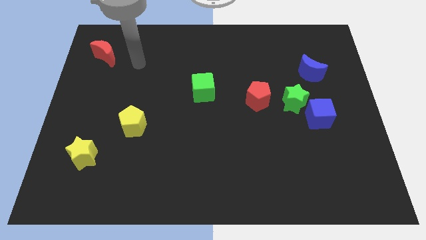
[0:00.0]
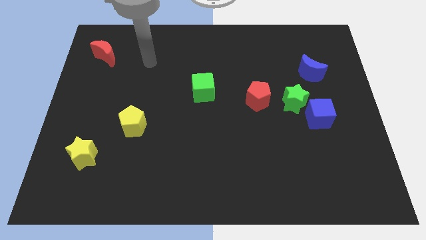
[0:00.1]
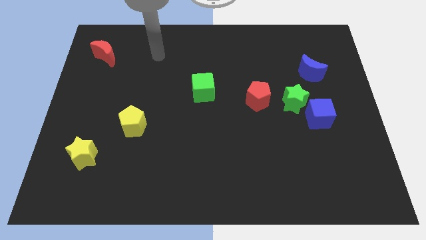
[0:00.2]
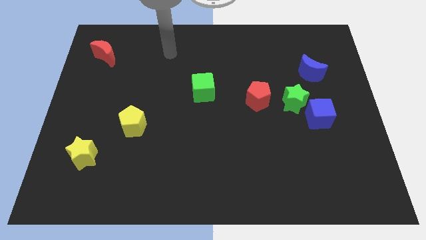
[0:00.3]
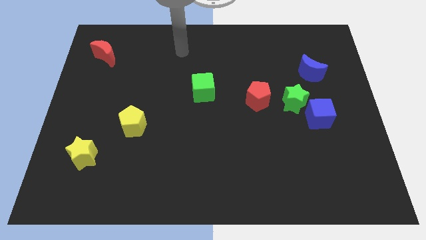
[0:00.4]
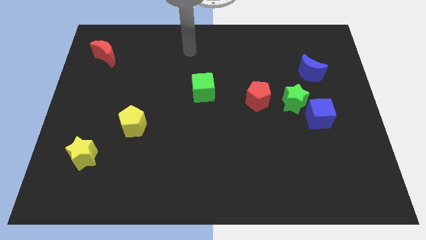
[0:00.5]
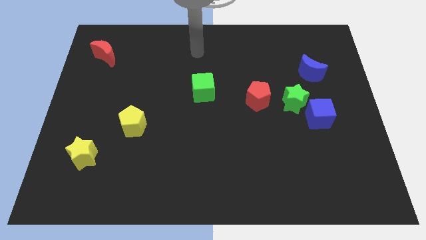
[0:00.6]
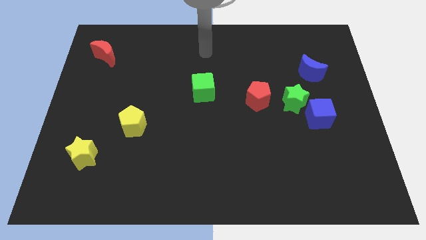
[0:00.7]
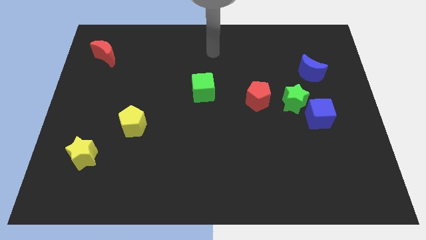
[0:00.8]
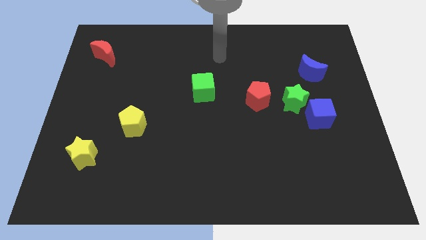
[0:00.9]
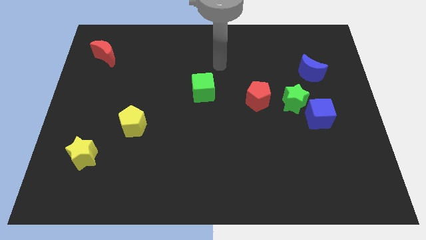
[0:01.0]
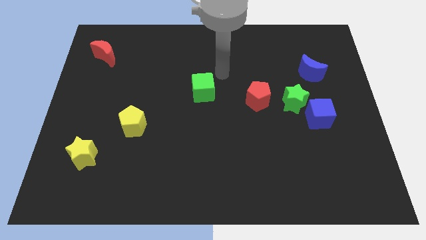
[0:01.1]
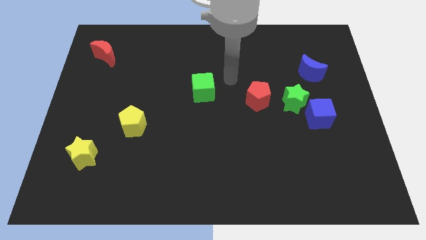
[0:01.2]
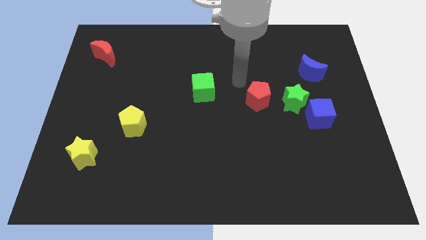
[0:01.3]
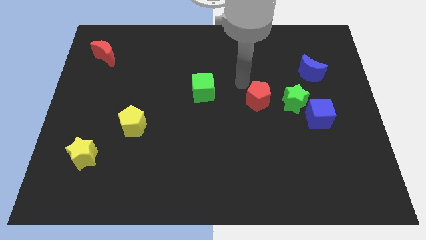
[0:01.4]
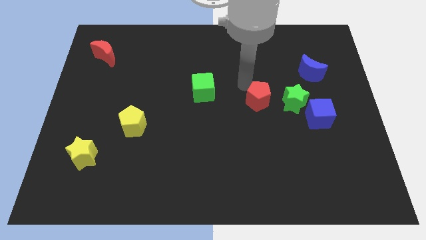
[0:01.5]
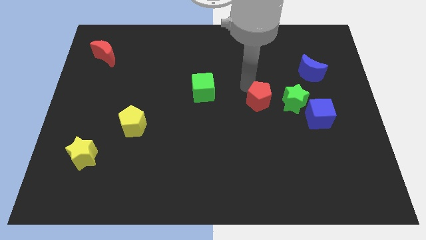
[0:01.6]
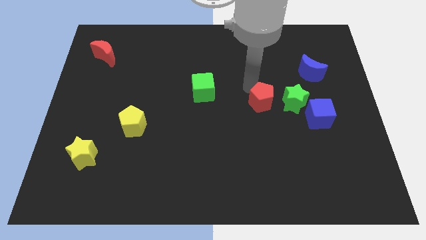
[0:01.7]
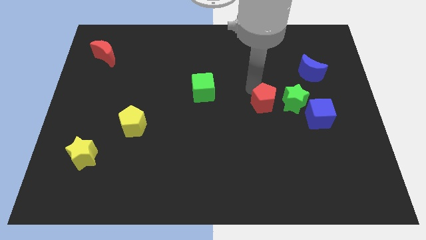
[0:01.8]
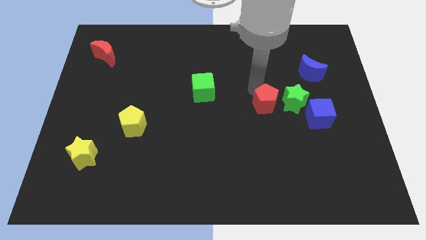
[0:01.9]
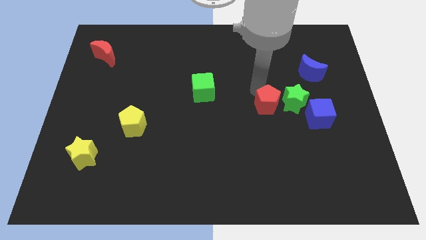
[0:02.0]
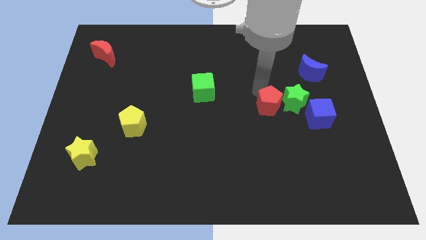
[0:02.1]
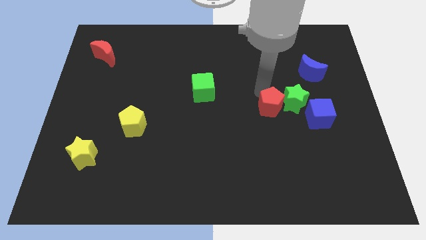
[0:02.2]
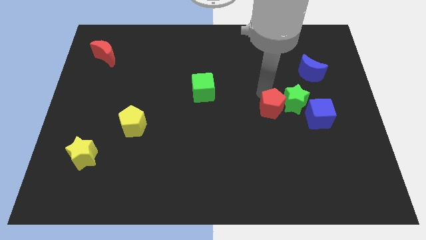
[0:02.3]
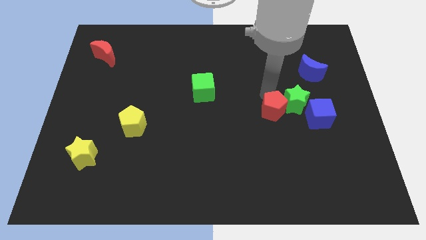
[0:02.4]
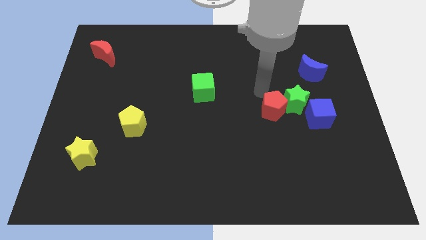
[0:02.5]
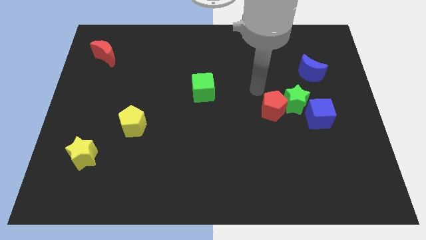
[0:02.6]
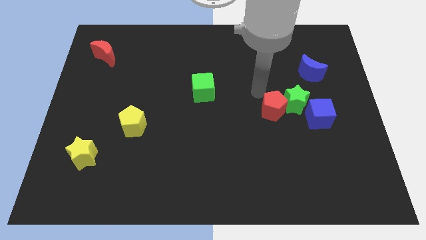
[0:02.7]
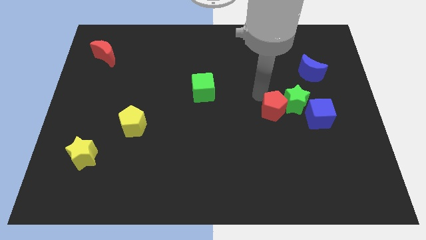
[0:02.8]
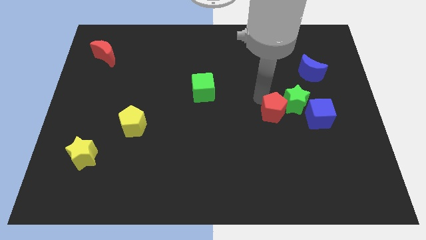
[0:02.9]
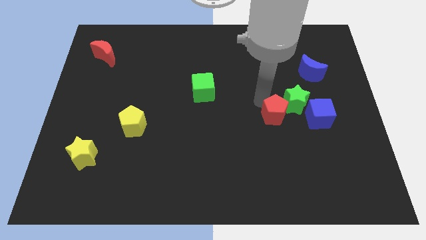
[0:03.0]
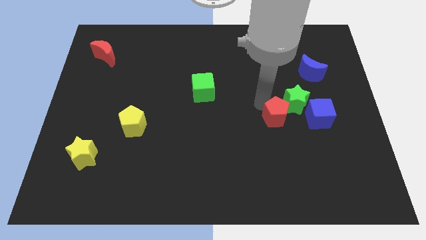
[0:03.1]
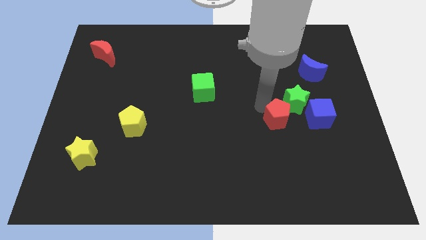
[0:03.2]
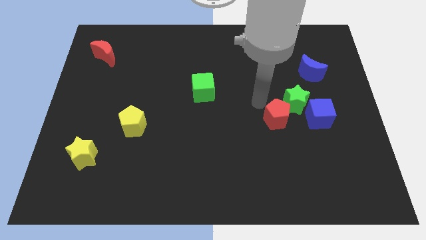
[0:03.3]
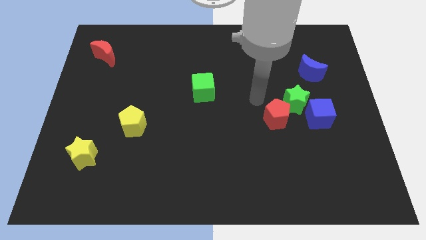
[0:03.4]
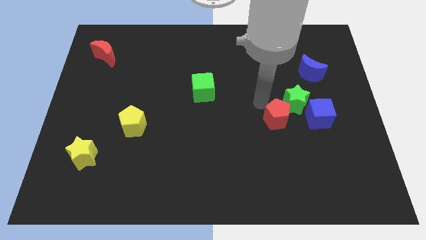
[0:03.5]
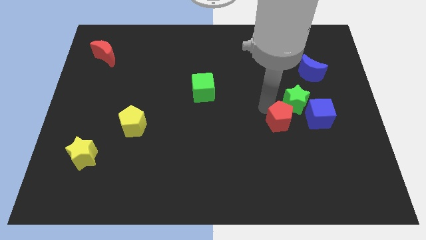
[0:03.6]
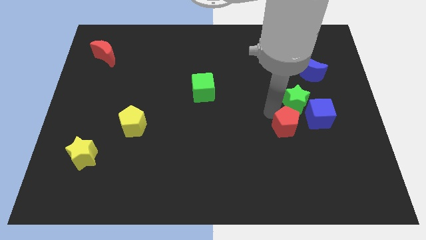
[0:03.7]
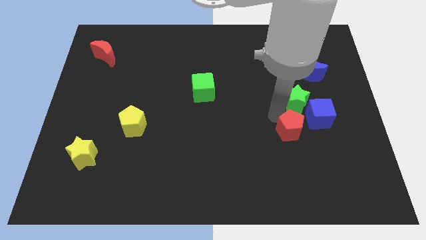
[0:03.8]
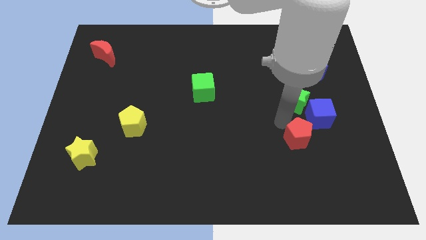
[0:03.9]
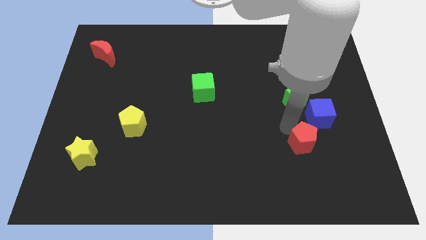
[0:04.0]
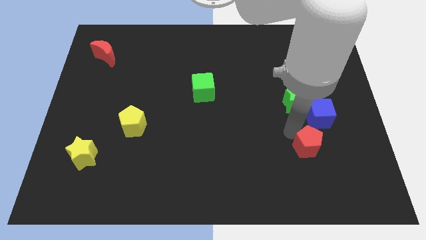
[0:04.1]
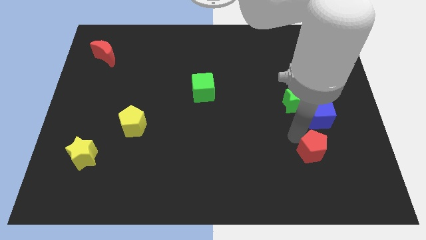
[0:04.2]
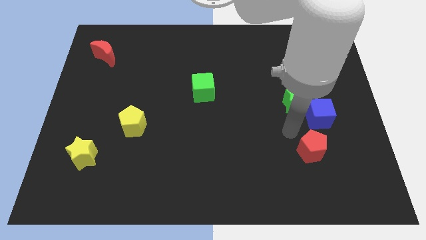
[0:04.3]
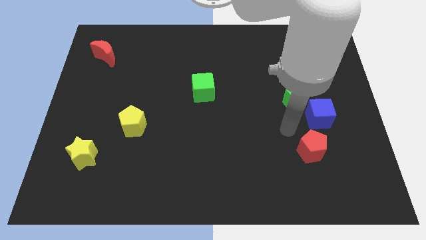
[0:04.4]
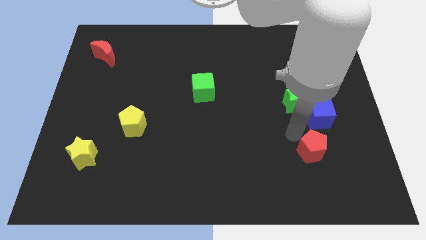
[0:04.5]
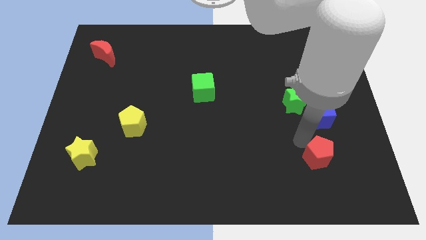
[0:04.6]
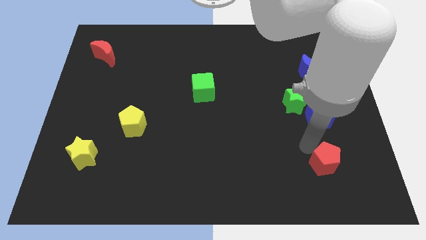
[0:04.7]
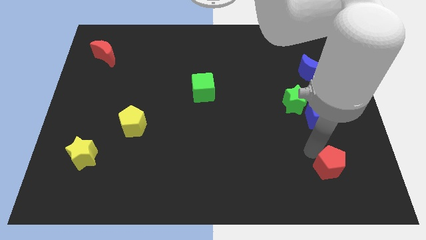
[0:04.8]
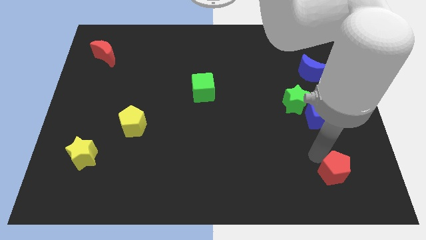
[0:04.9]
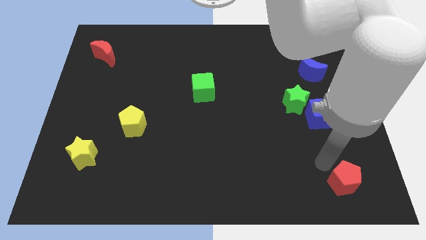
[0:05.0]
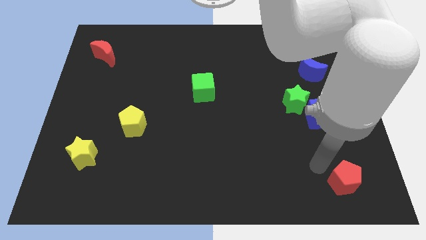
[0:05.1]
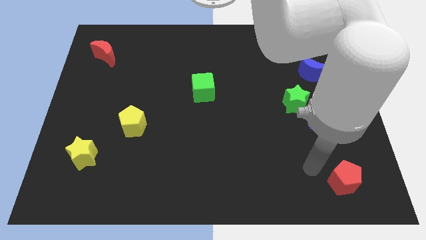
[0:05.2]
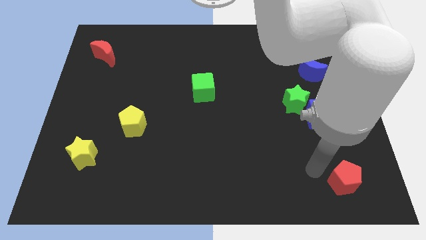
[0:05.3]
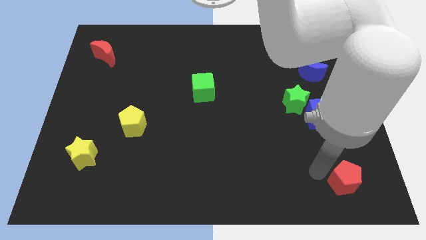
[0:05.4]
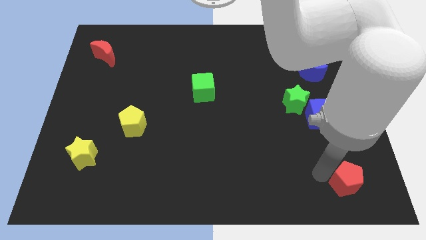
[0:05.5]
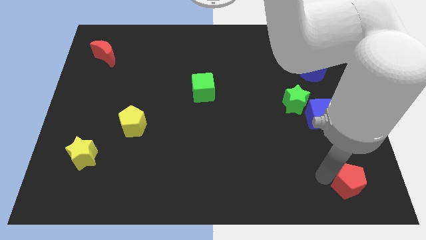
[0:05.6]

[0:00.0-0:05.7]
push the red pentagon to the bottom right of the board

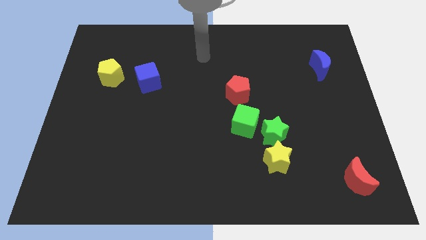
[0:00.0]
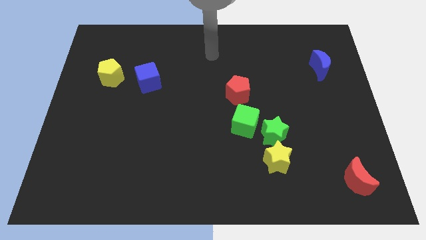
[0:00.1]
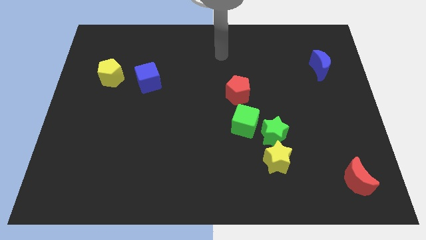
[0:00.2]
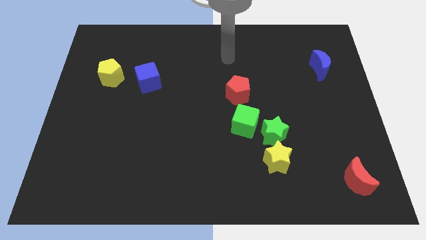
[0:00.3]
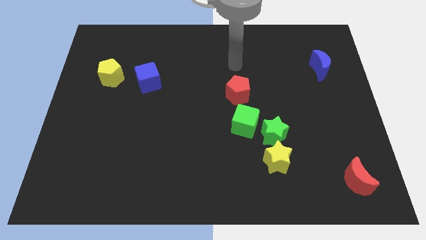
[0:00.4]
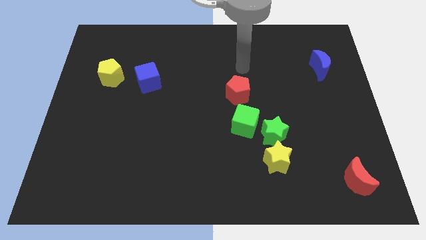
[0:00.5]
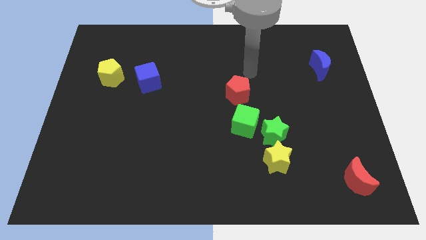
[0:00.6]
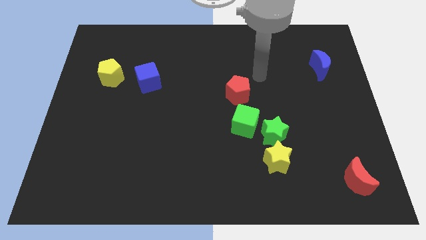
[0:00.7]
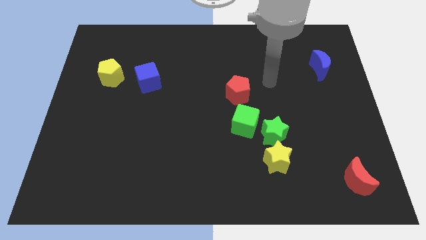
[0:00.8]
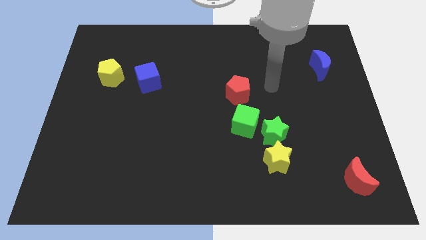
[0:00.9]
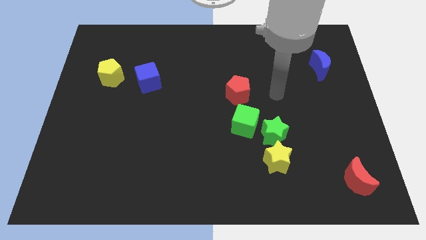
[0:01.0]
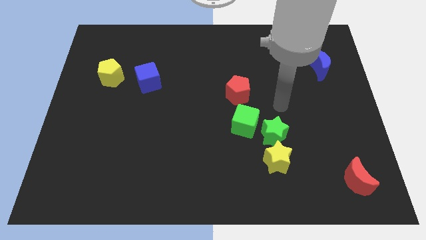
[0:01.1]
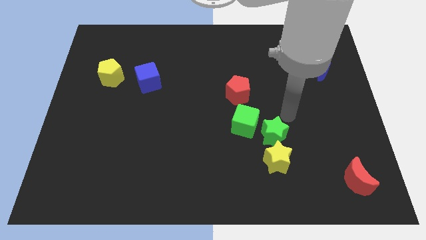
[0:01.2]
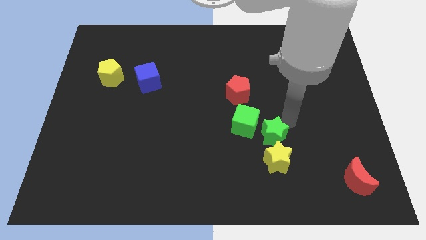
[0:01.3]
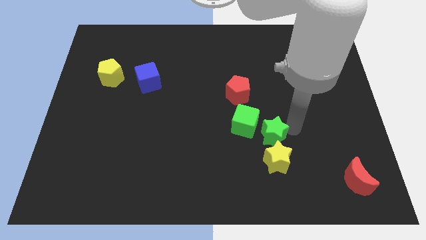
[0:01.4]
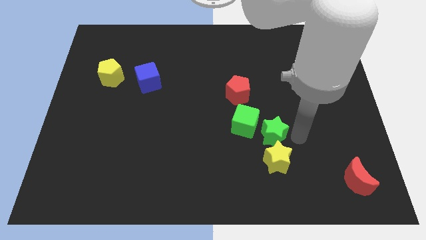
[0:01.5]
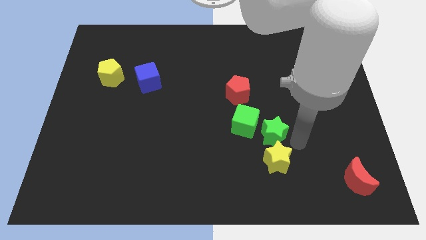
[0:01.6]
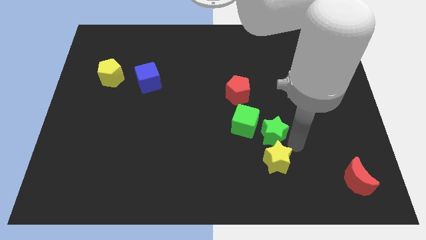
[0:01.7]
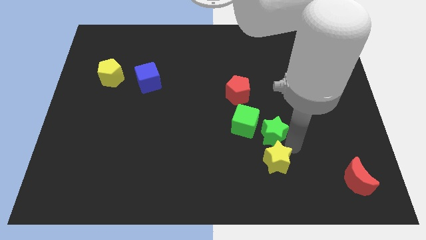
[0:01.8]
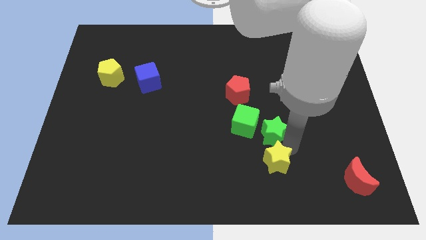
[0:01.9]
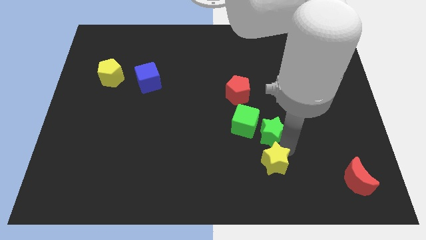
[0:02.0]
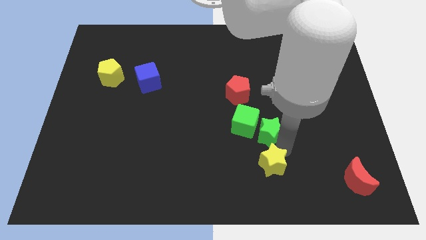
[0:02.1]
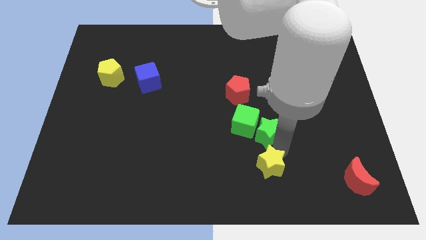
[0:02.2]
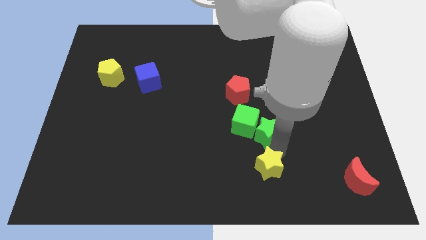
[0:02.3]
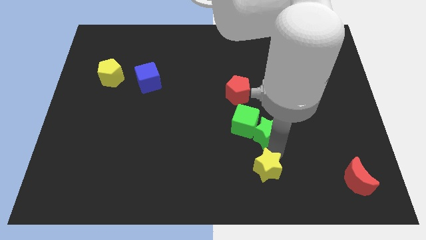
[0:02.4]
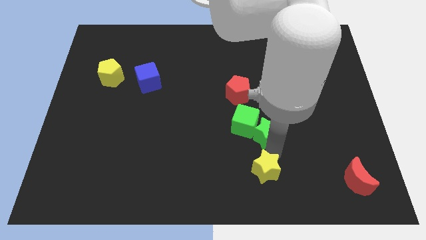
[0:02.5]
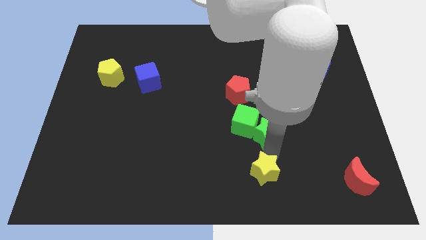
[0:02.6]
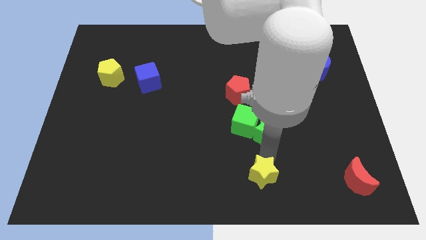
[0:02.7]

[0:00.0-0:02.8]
push the yellow star to the bottom
